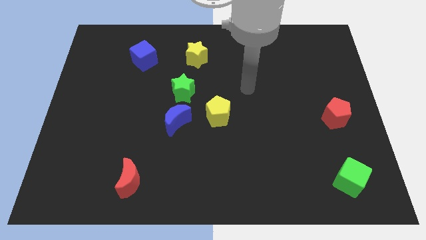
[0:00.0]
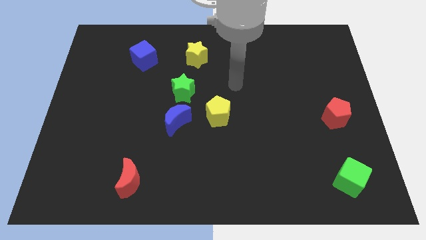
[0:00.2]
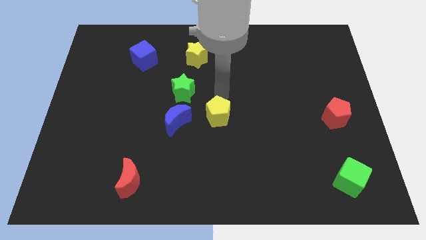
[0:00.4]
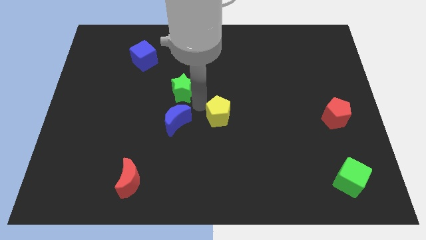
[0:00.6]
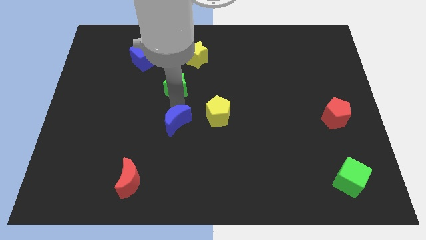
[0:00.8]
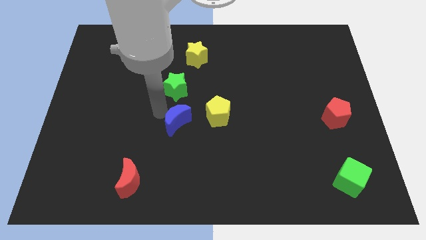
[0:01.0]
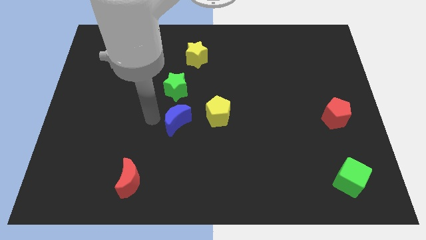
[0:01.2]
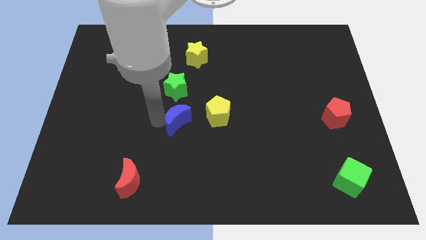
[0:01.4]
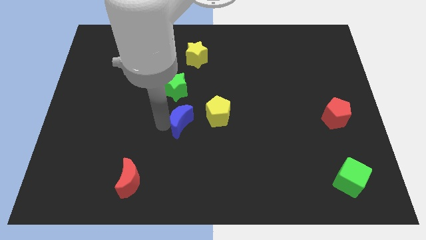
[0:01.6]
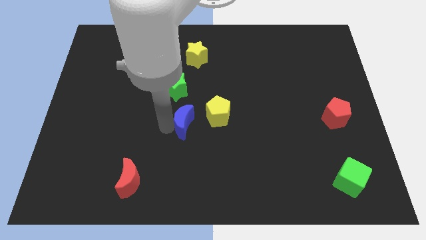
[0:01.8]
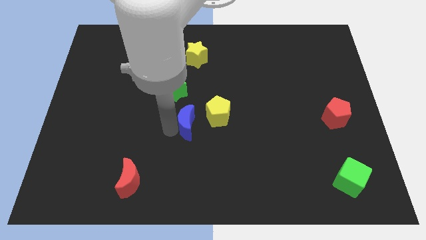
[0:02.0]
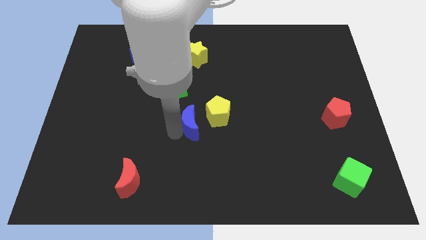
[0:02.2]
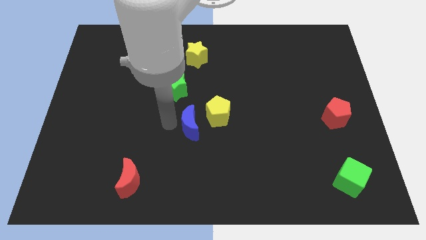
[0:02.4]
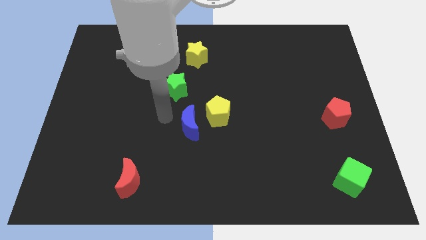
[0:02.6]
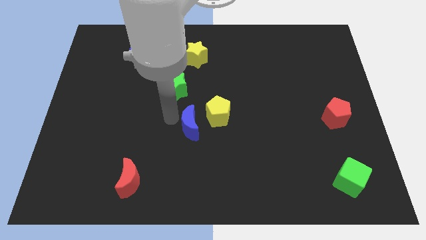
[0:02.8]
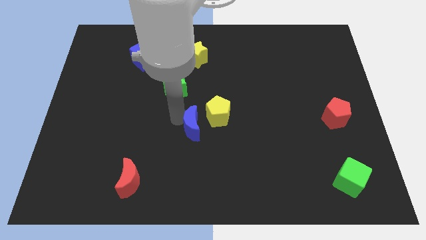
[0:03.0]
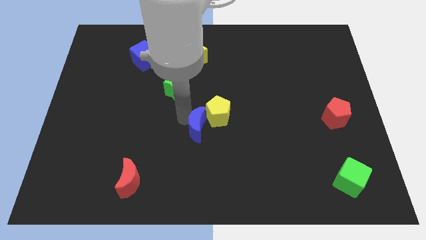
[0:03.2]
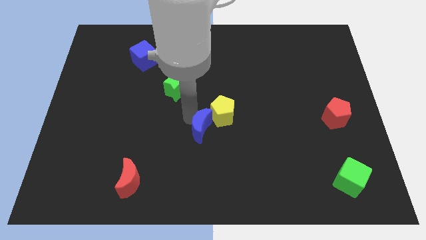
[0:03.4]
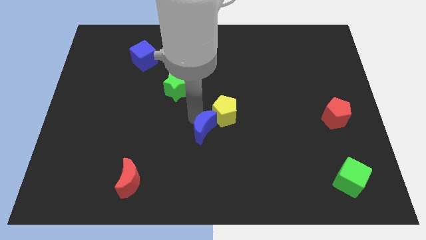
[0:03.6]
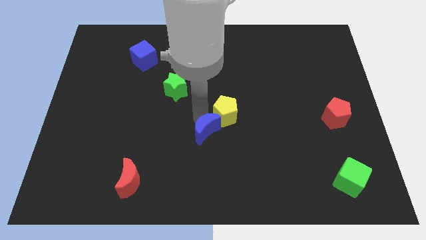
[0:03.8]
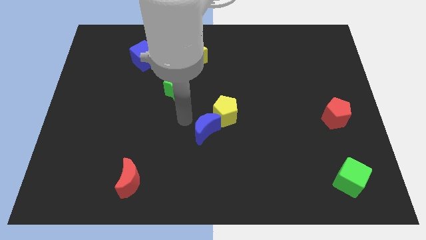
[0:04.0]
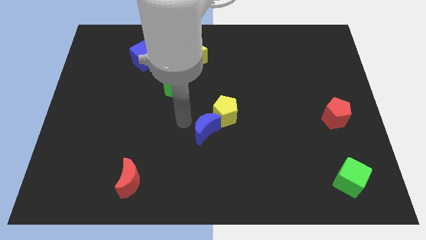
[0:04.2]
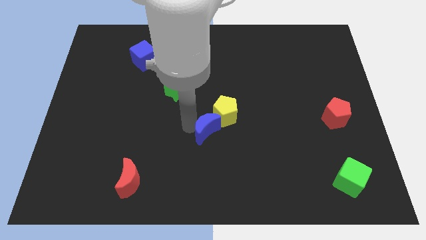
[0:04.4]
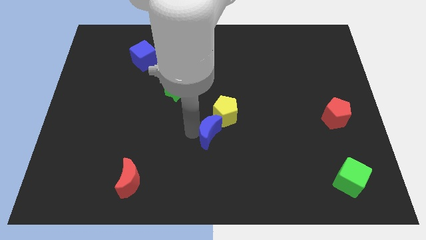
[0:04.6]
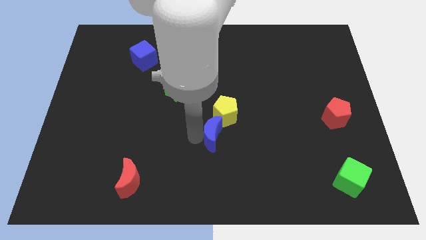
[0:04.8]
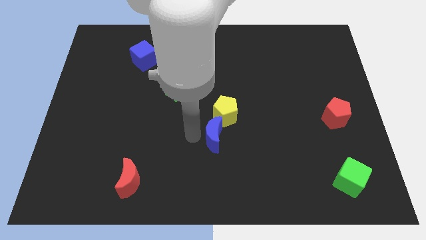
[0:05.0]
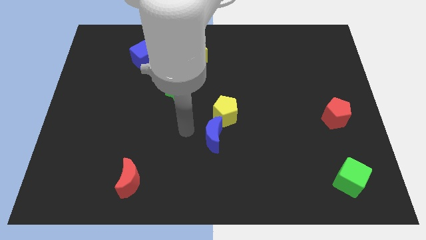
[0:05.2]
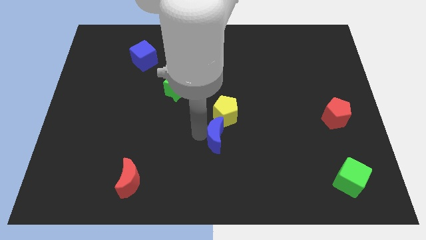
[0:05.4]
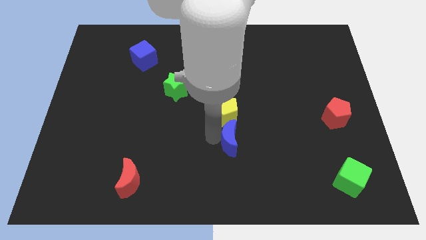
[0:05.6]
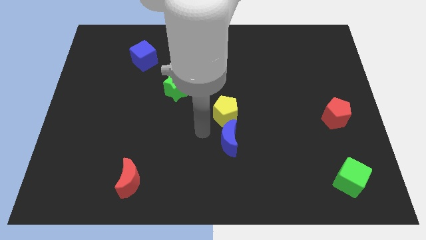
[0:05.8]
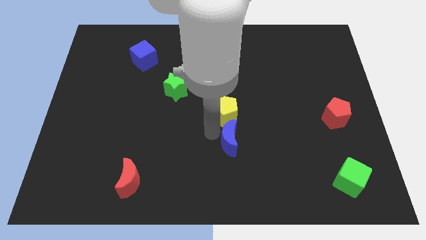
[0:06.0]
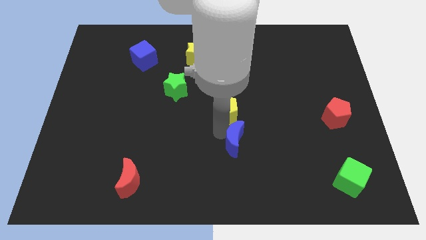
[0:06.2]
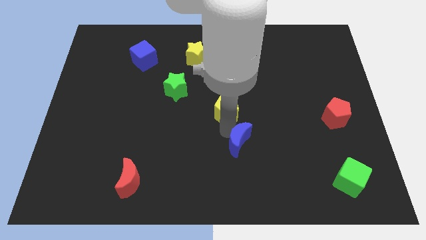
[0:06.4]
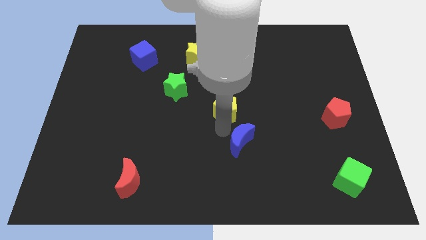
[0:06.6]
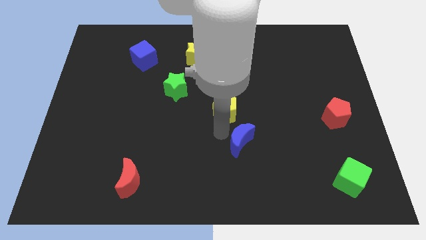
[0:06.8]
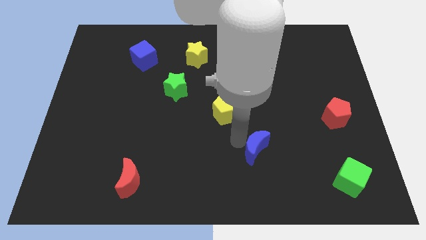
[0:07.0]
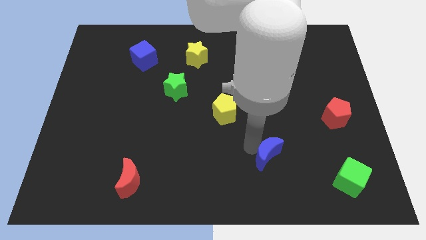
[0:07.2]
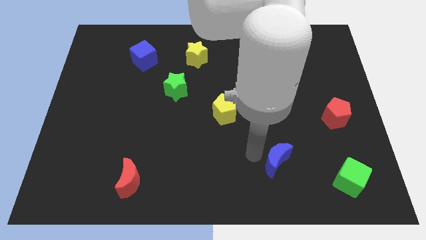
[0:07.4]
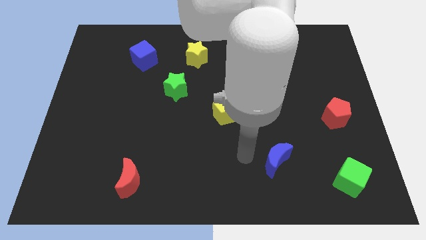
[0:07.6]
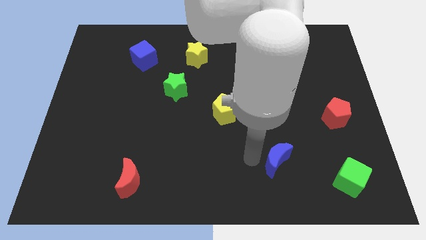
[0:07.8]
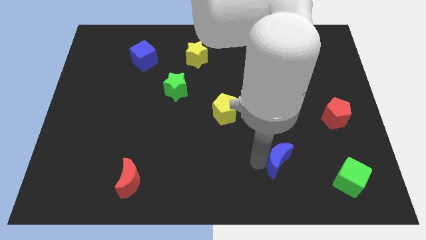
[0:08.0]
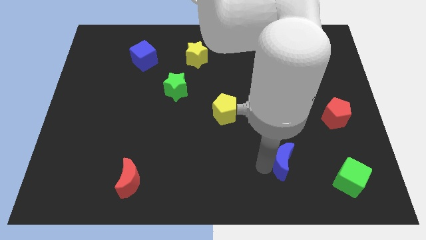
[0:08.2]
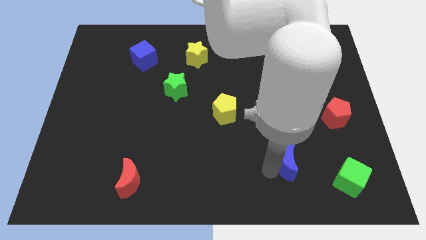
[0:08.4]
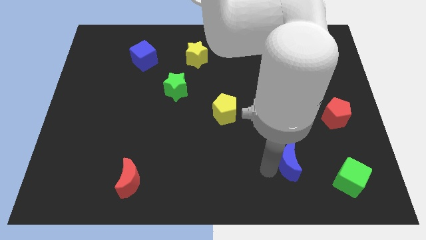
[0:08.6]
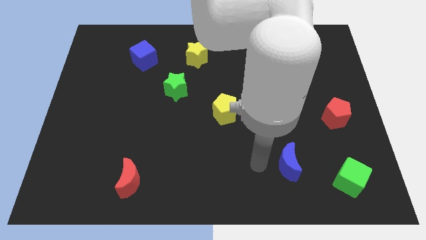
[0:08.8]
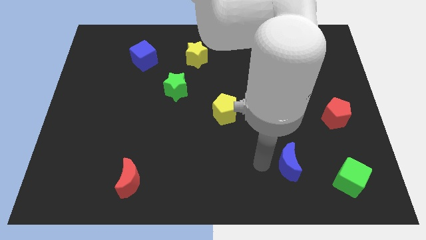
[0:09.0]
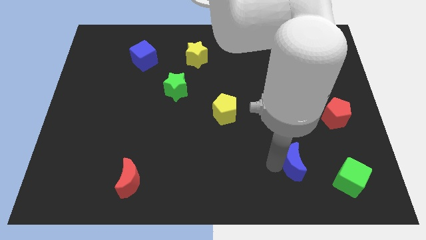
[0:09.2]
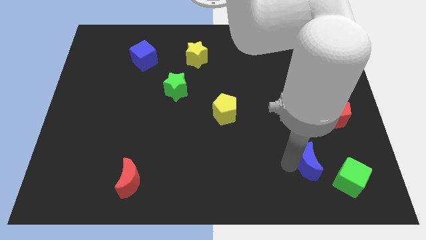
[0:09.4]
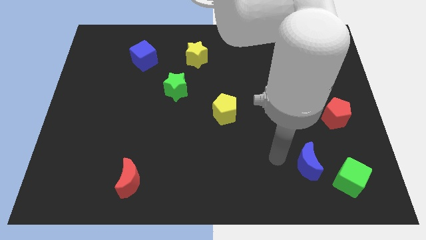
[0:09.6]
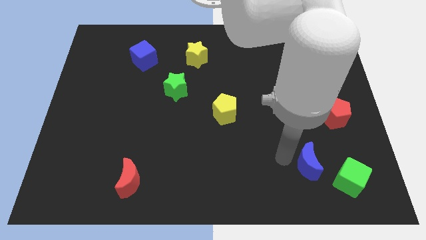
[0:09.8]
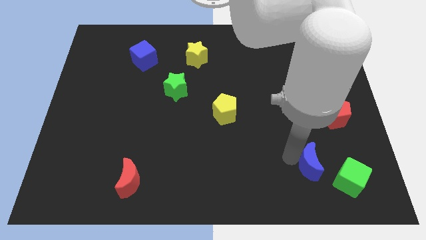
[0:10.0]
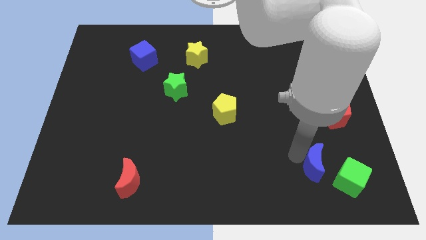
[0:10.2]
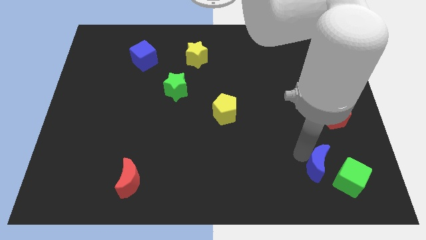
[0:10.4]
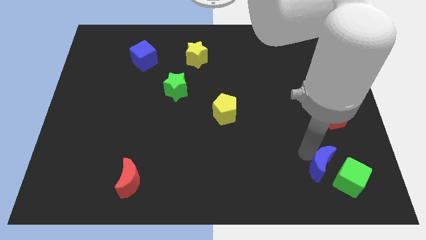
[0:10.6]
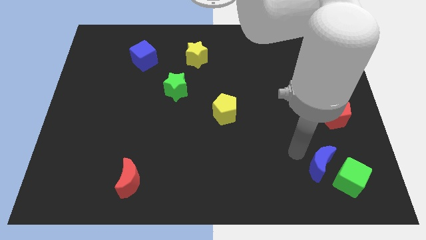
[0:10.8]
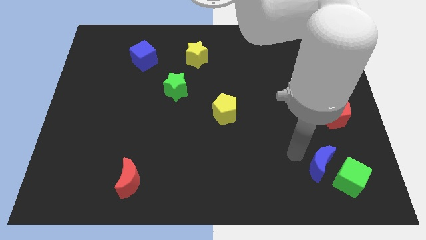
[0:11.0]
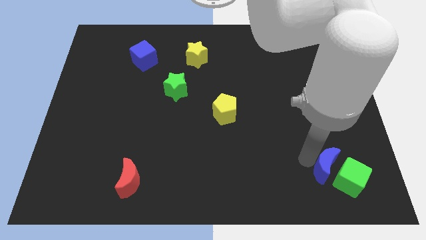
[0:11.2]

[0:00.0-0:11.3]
slide the blue moon close to the green cube
